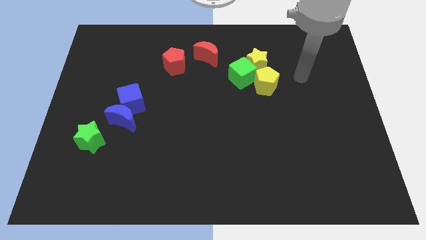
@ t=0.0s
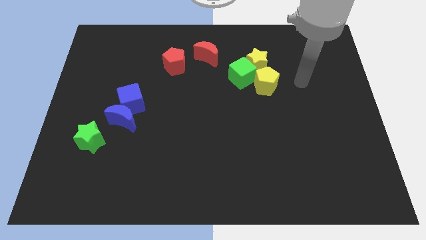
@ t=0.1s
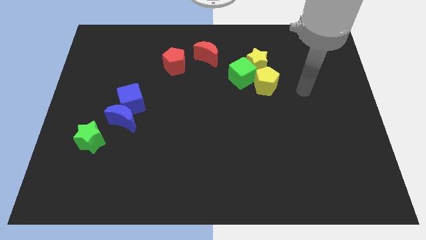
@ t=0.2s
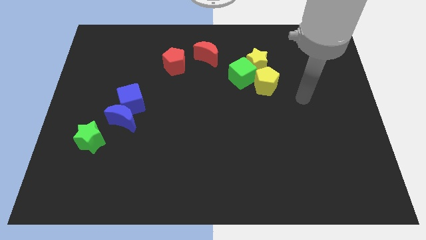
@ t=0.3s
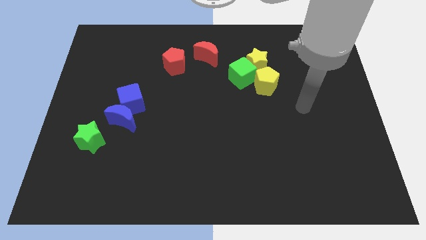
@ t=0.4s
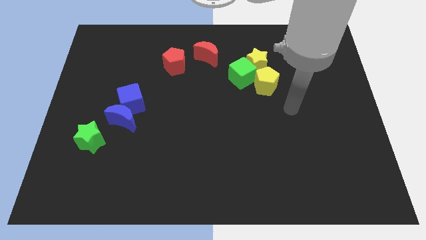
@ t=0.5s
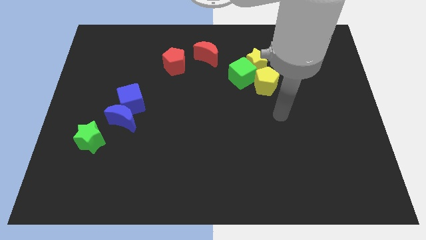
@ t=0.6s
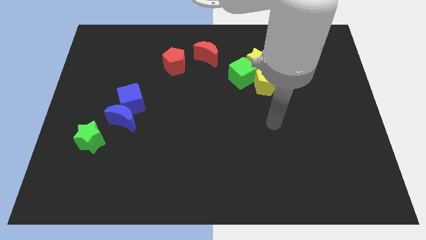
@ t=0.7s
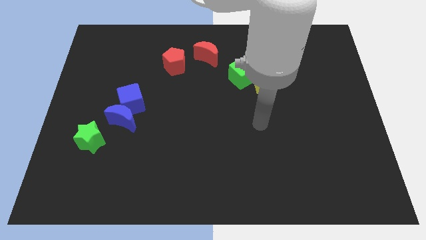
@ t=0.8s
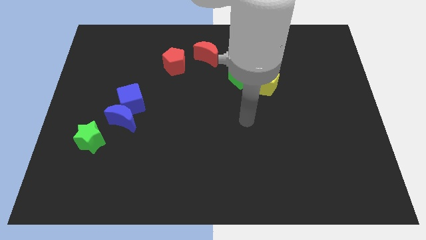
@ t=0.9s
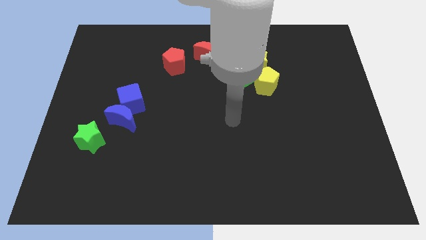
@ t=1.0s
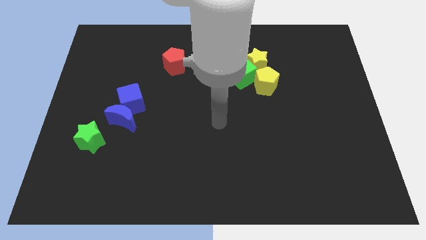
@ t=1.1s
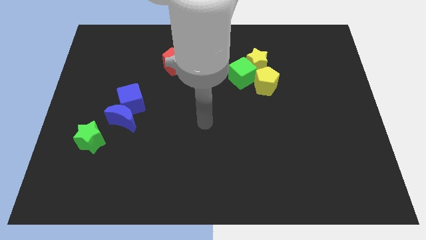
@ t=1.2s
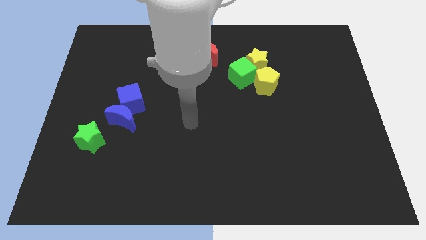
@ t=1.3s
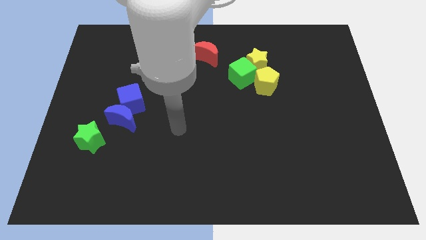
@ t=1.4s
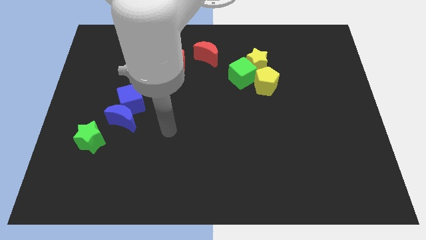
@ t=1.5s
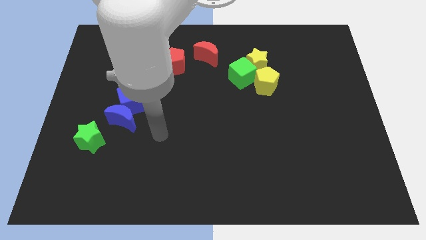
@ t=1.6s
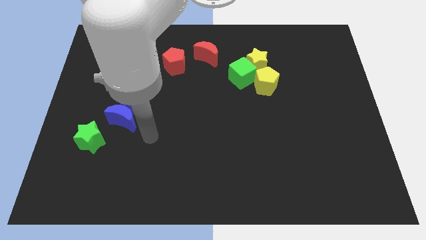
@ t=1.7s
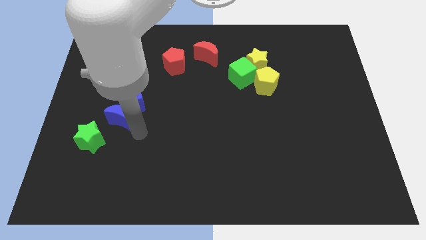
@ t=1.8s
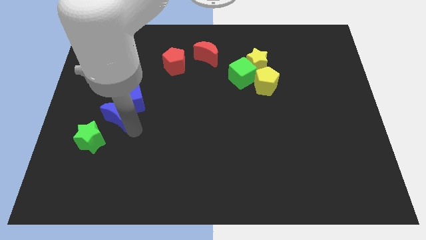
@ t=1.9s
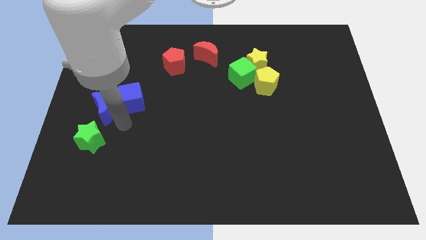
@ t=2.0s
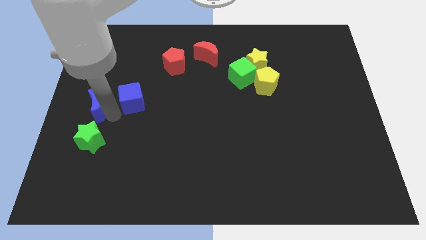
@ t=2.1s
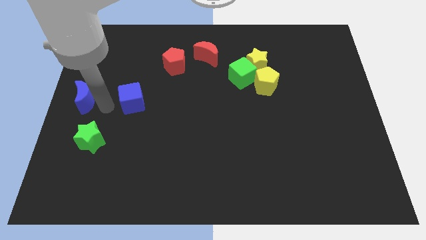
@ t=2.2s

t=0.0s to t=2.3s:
separate the blue cube from the blue moon

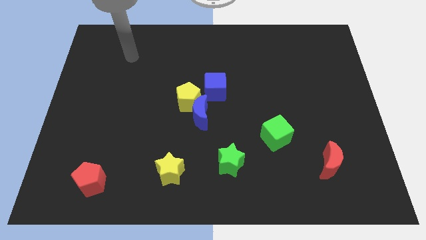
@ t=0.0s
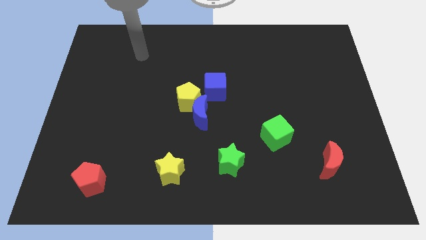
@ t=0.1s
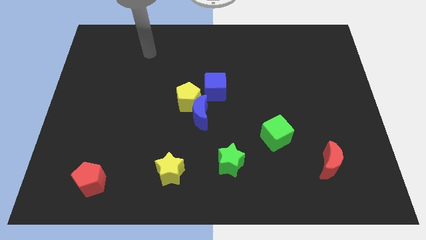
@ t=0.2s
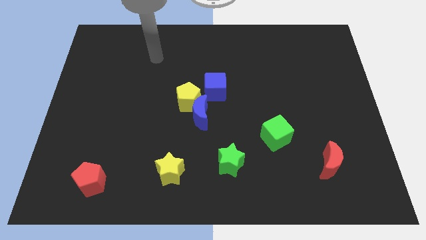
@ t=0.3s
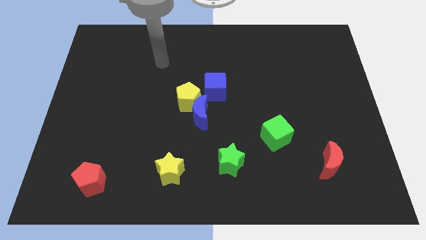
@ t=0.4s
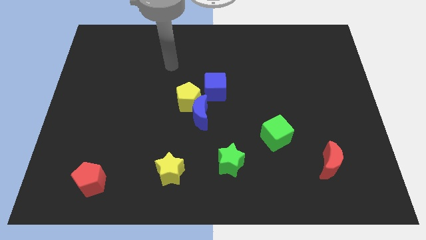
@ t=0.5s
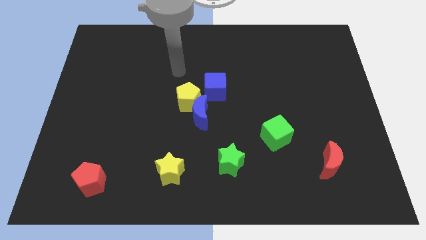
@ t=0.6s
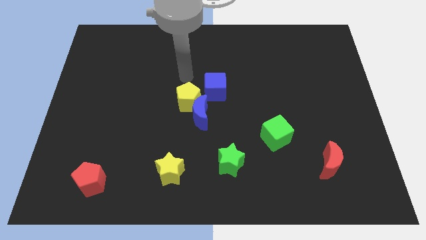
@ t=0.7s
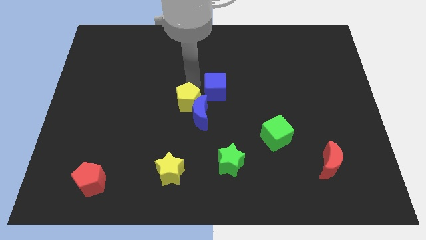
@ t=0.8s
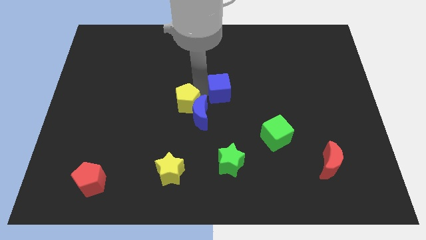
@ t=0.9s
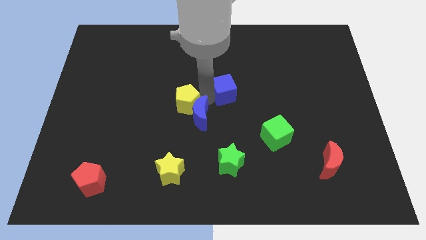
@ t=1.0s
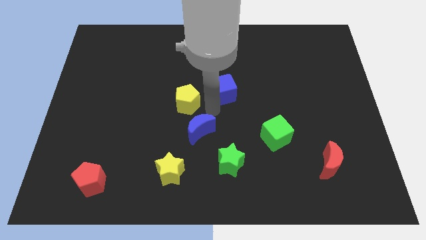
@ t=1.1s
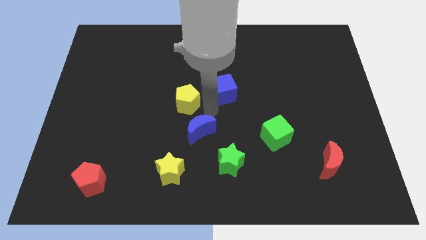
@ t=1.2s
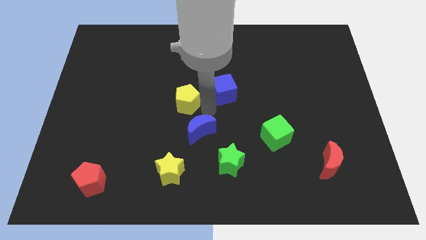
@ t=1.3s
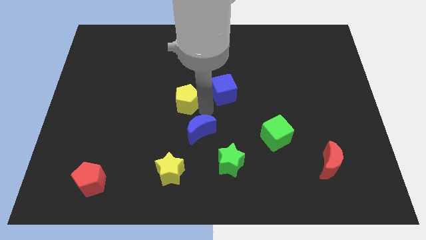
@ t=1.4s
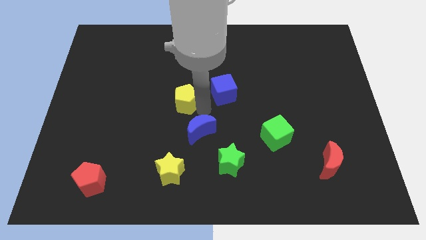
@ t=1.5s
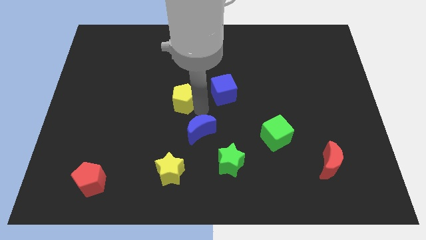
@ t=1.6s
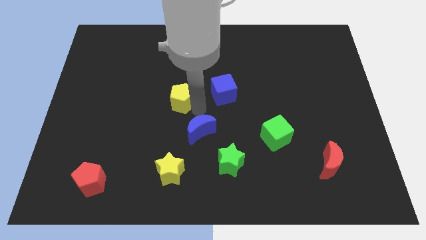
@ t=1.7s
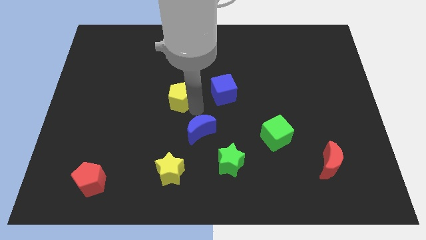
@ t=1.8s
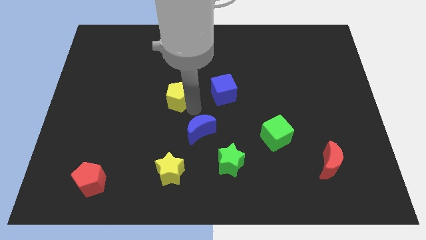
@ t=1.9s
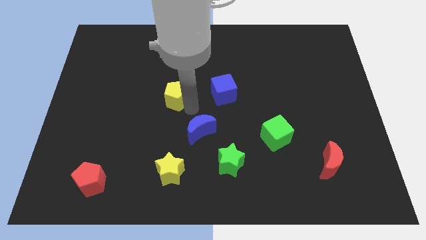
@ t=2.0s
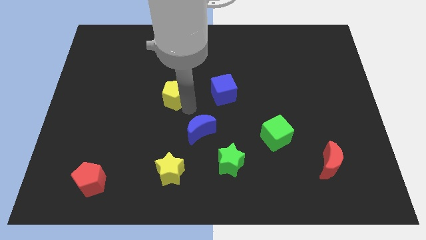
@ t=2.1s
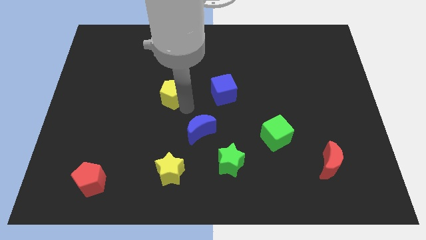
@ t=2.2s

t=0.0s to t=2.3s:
separate the yellow pentagon from the blue moon and blue cube

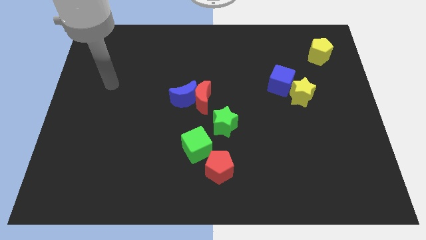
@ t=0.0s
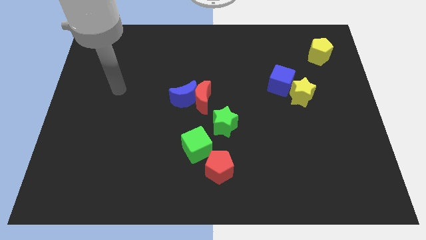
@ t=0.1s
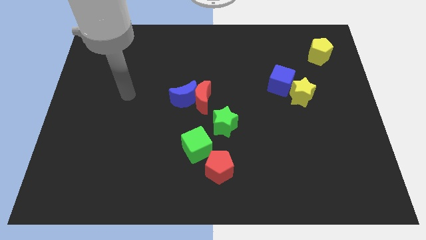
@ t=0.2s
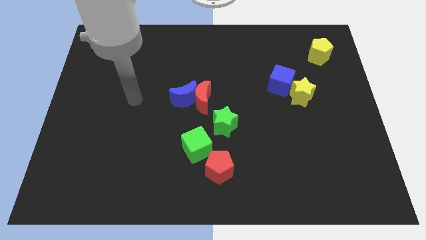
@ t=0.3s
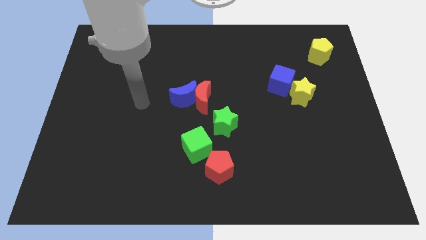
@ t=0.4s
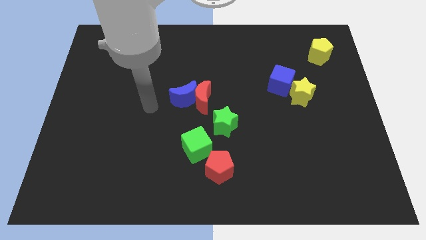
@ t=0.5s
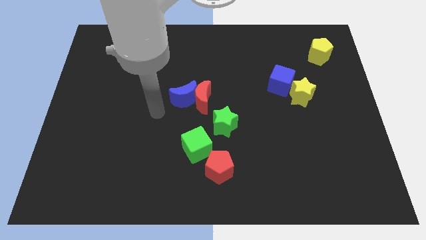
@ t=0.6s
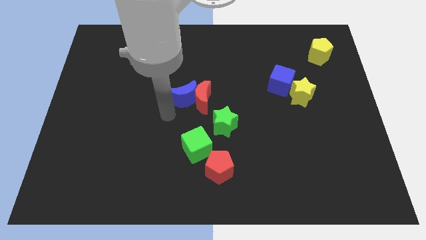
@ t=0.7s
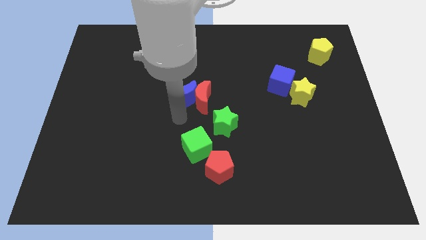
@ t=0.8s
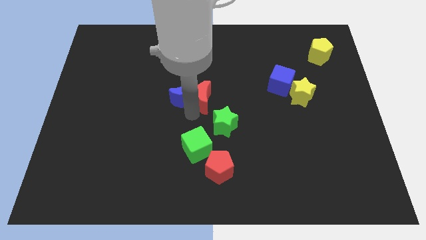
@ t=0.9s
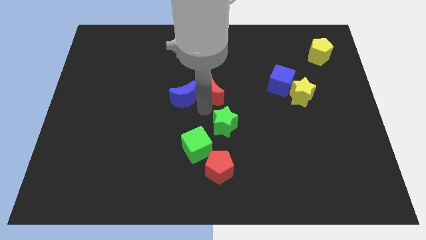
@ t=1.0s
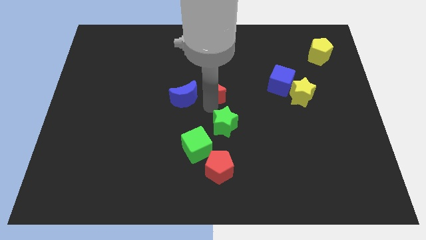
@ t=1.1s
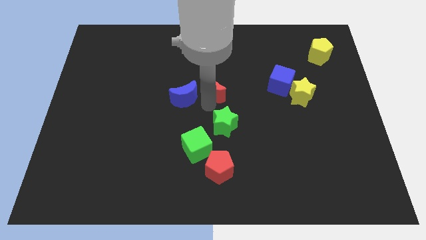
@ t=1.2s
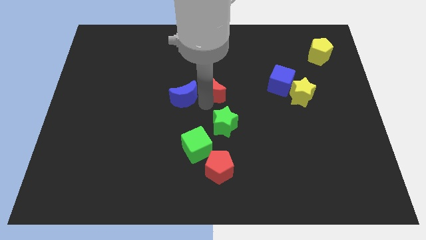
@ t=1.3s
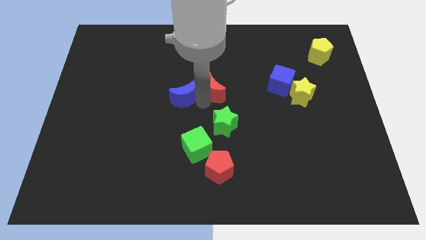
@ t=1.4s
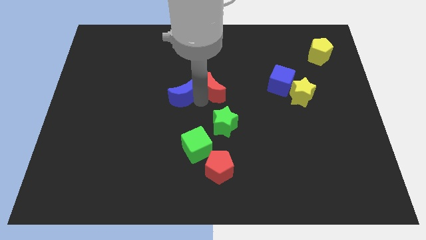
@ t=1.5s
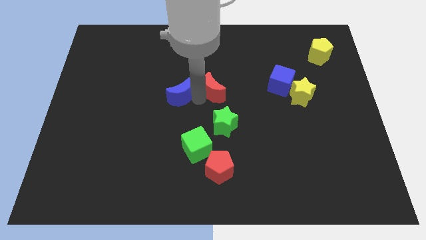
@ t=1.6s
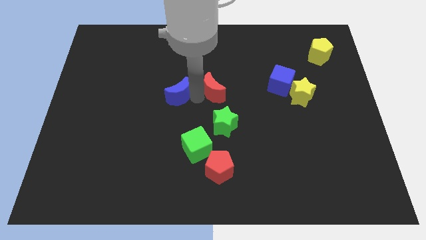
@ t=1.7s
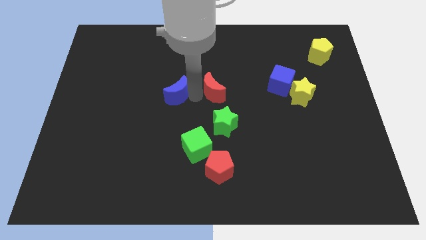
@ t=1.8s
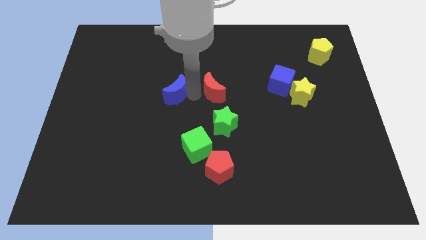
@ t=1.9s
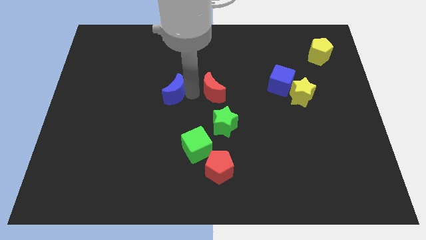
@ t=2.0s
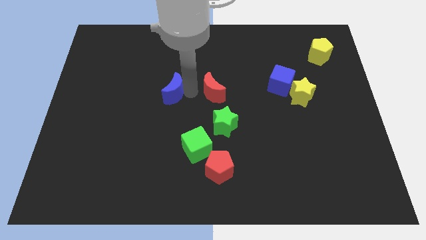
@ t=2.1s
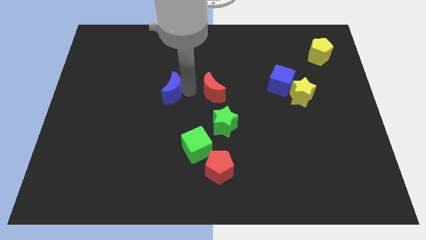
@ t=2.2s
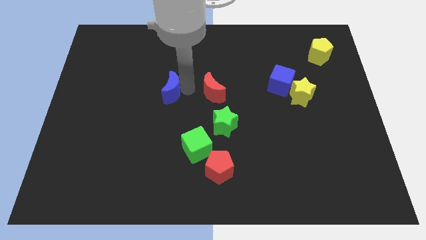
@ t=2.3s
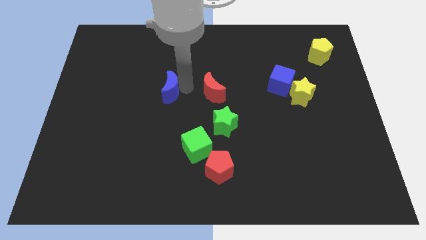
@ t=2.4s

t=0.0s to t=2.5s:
pull the blue moon apart from the red moon

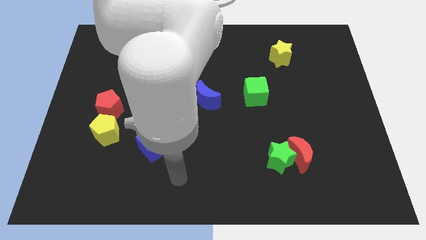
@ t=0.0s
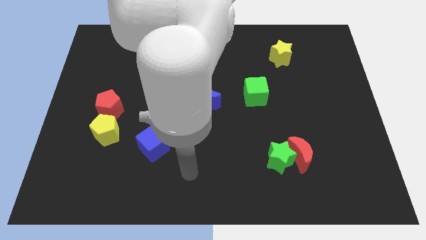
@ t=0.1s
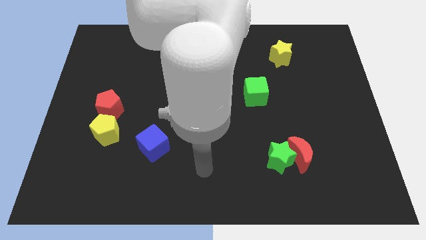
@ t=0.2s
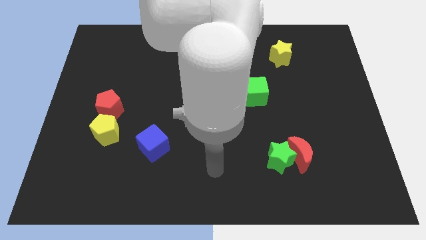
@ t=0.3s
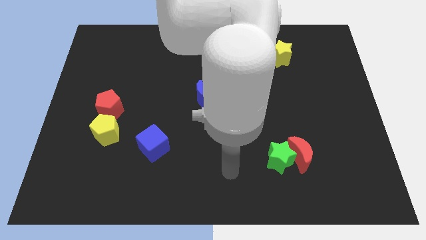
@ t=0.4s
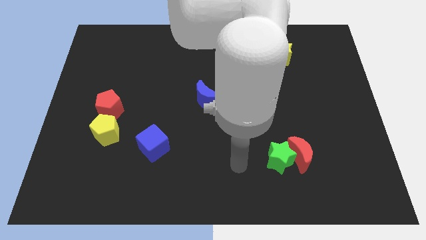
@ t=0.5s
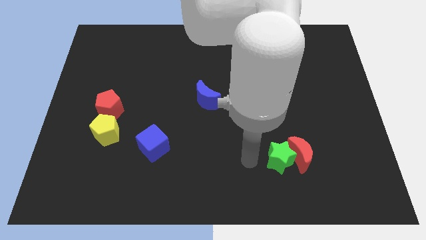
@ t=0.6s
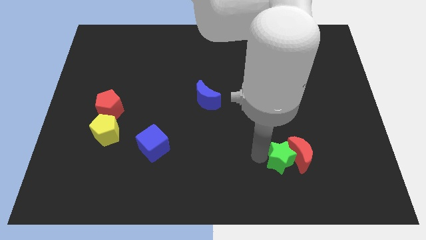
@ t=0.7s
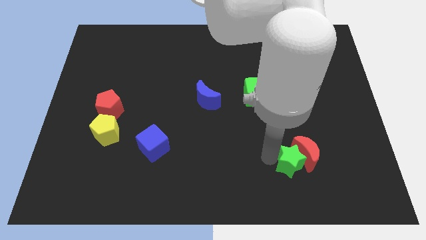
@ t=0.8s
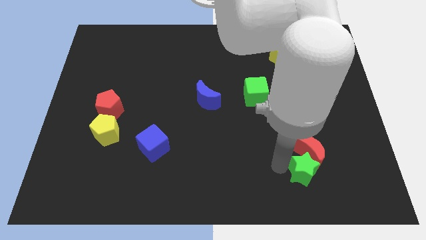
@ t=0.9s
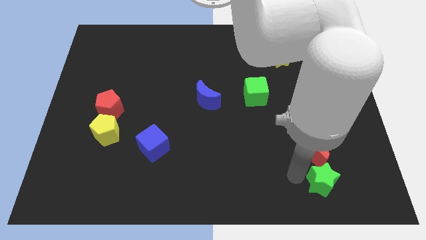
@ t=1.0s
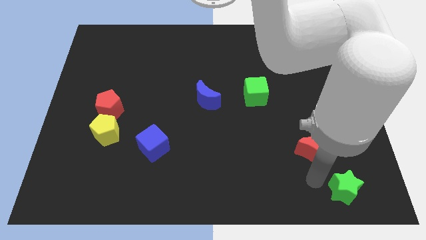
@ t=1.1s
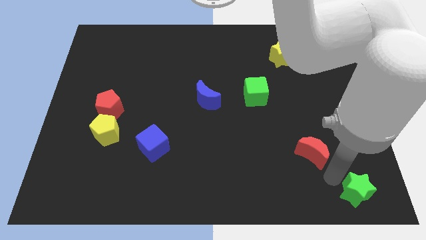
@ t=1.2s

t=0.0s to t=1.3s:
separate the red moon from the green star

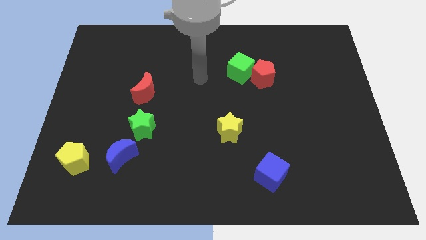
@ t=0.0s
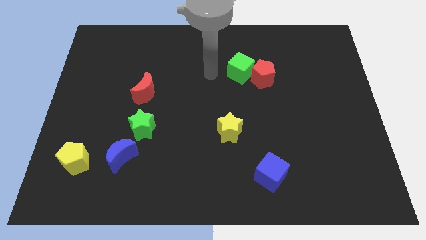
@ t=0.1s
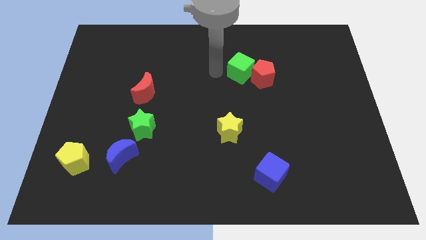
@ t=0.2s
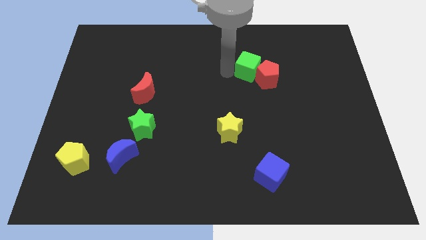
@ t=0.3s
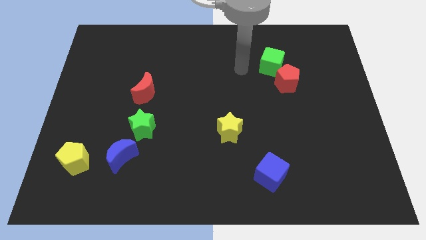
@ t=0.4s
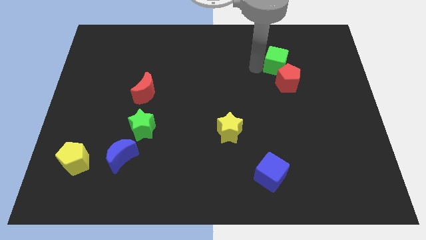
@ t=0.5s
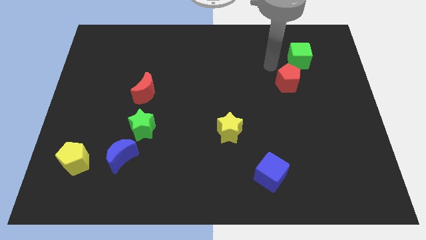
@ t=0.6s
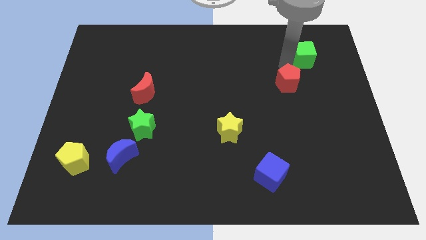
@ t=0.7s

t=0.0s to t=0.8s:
separate the red pentagon from the green cube
